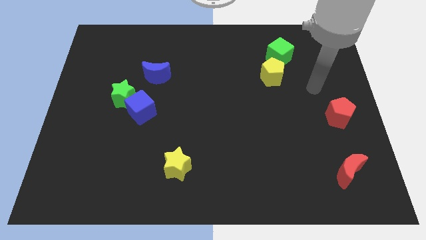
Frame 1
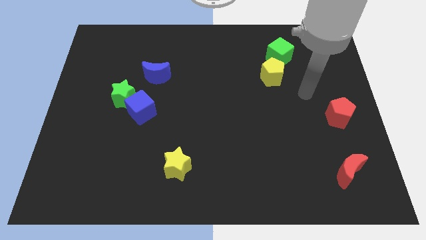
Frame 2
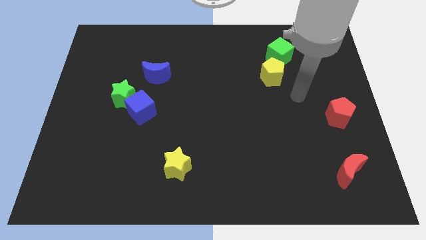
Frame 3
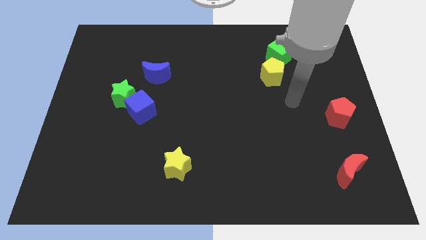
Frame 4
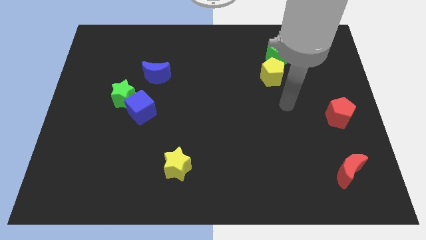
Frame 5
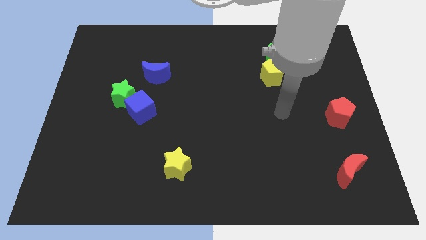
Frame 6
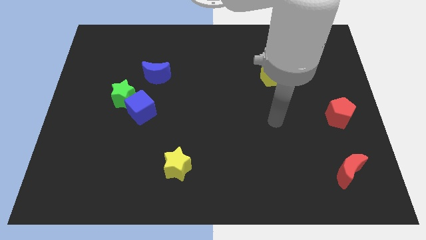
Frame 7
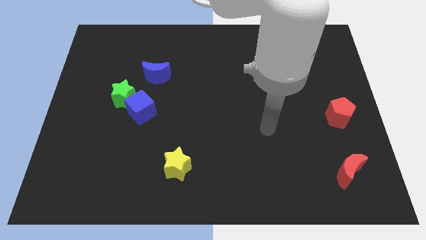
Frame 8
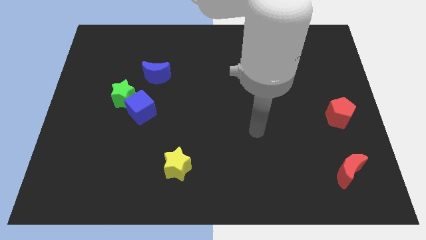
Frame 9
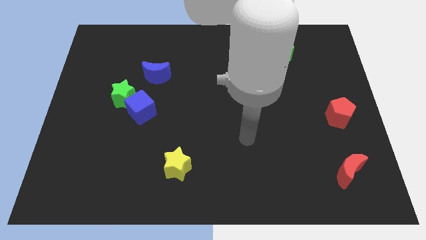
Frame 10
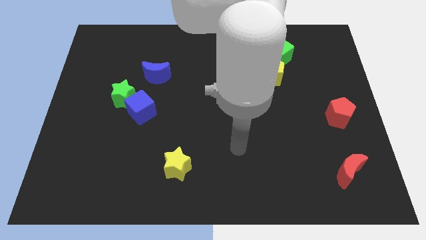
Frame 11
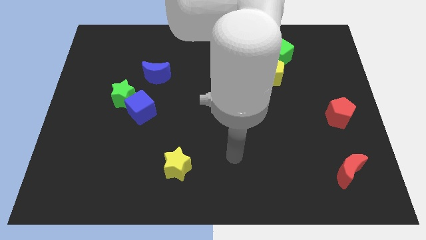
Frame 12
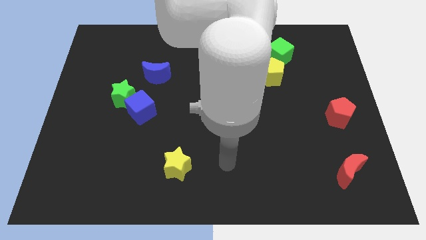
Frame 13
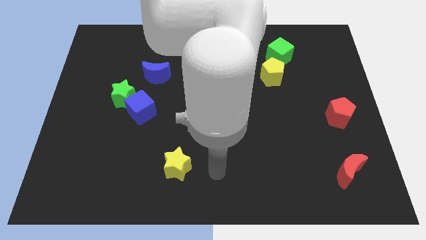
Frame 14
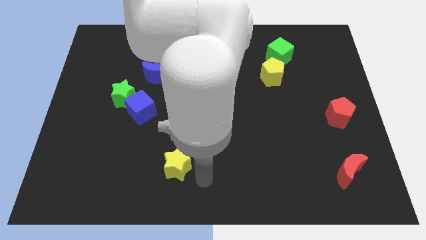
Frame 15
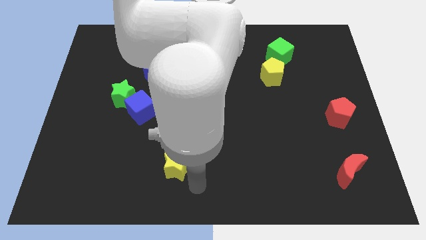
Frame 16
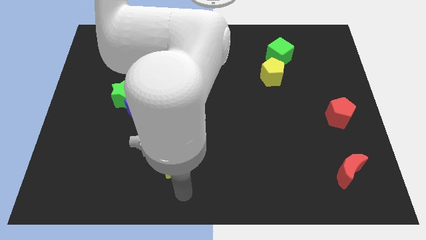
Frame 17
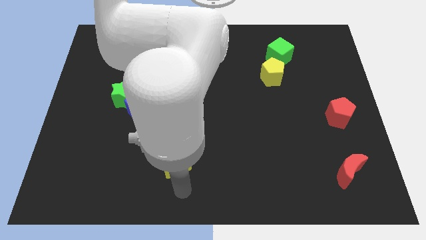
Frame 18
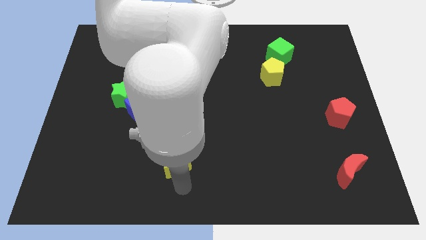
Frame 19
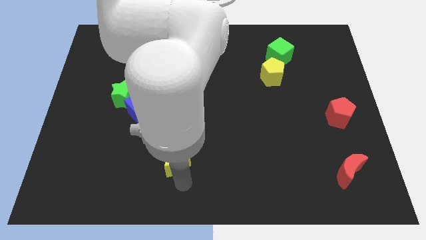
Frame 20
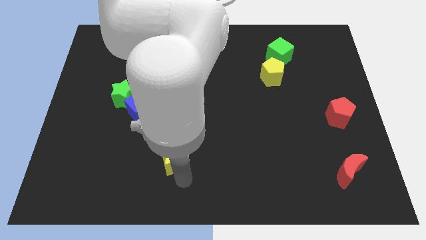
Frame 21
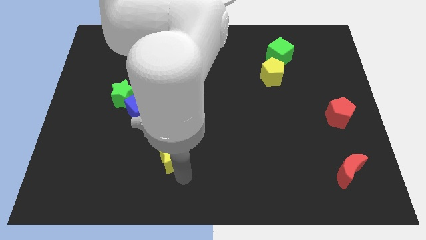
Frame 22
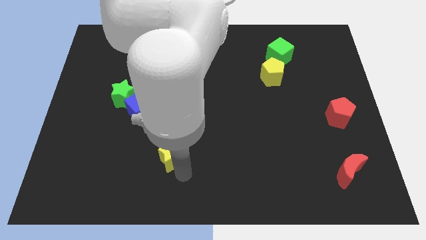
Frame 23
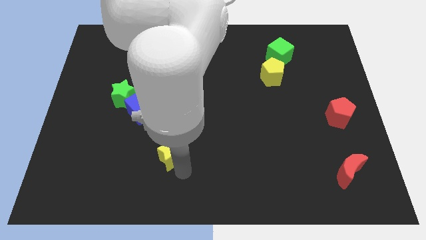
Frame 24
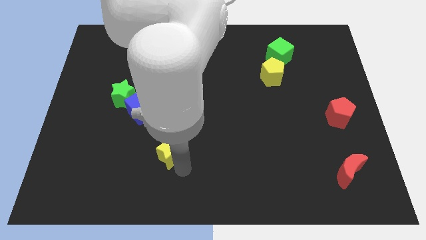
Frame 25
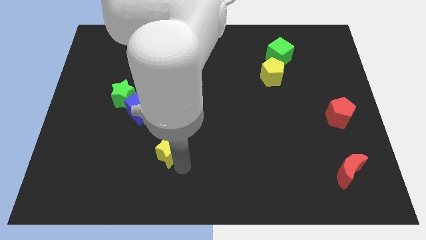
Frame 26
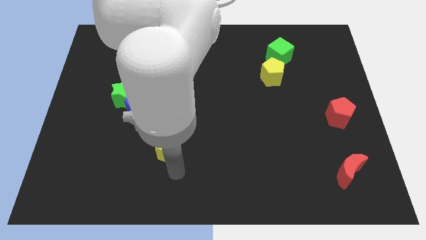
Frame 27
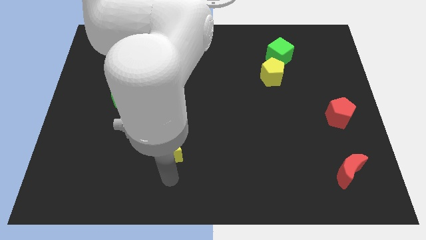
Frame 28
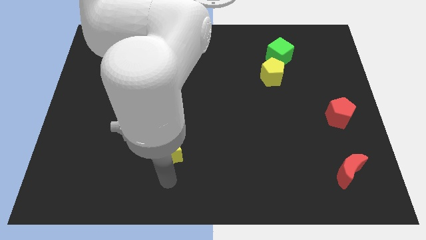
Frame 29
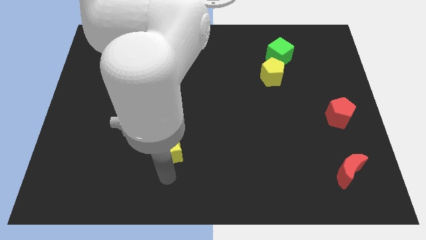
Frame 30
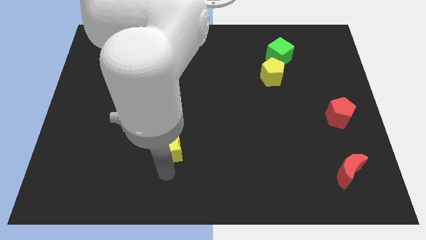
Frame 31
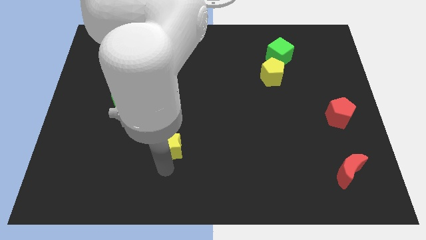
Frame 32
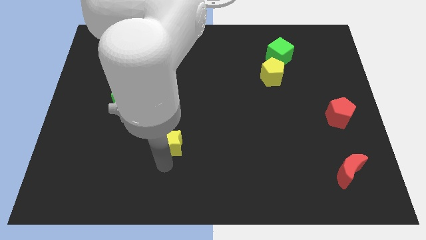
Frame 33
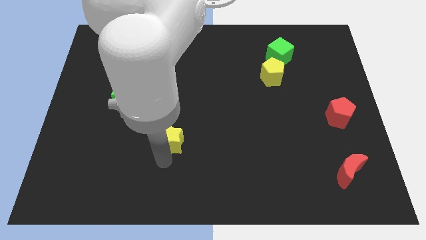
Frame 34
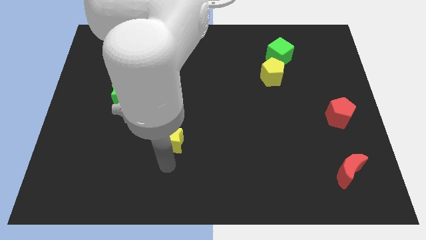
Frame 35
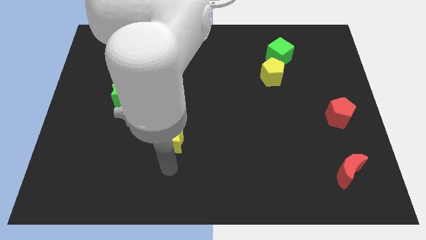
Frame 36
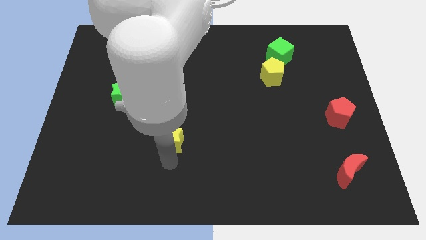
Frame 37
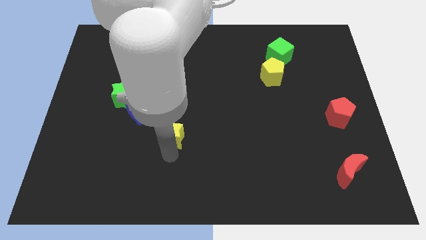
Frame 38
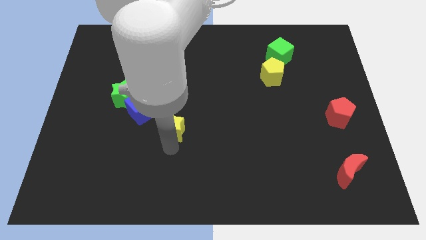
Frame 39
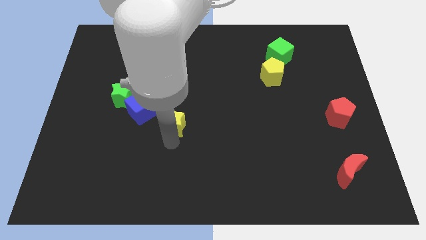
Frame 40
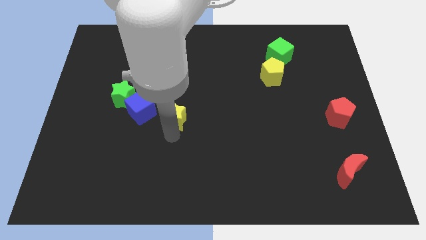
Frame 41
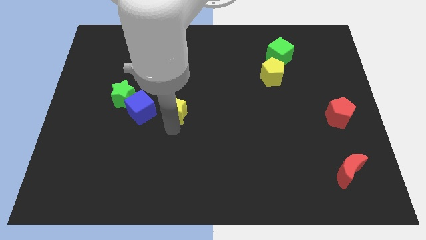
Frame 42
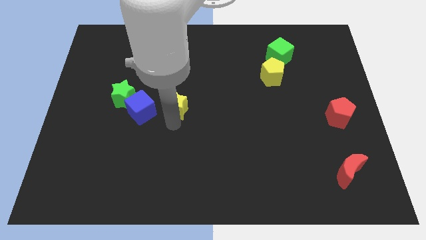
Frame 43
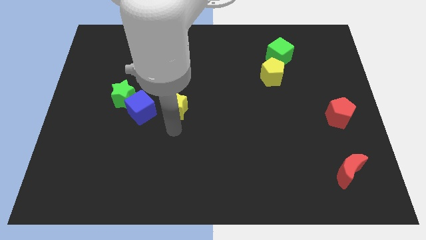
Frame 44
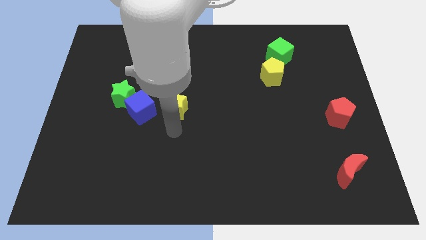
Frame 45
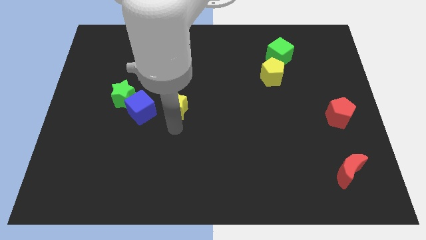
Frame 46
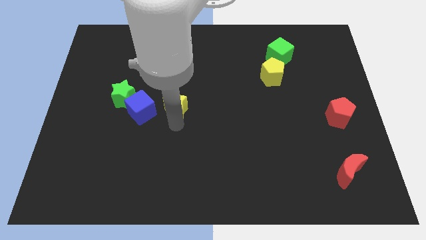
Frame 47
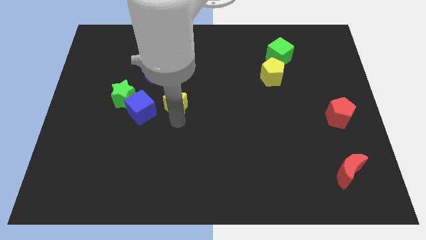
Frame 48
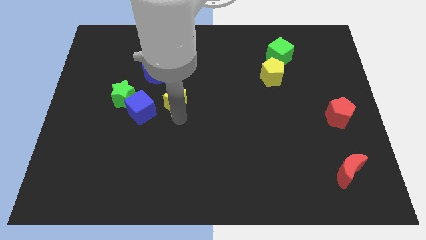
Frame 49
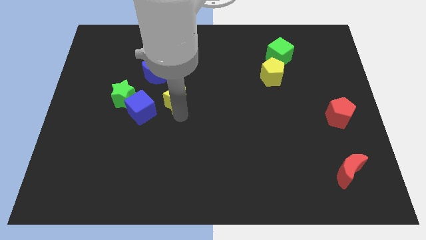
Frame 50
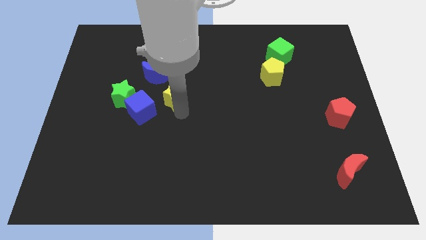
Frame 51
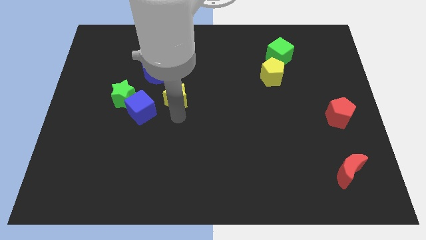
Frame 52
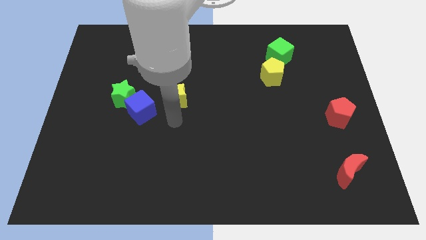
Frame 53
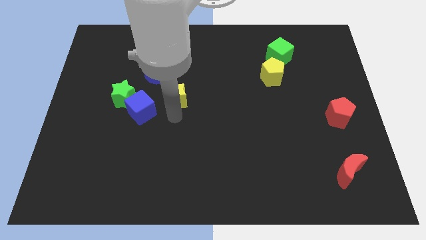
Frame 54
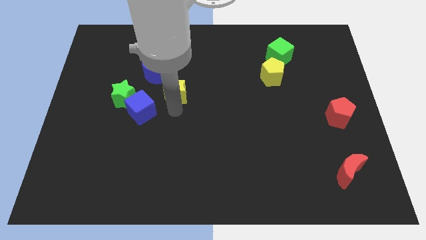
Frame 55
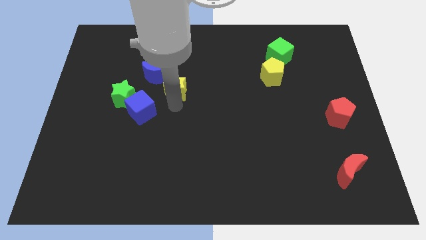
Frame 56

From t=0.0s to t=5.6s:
move the yellow star upwards

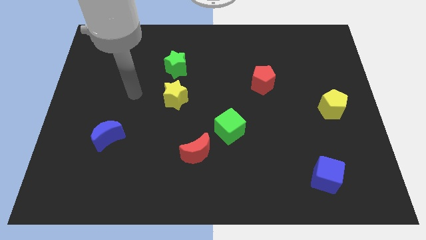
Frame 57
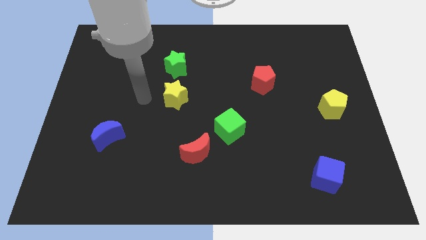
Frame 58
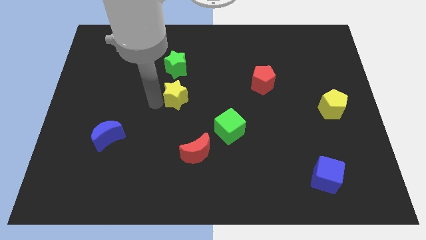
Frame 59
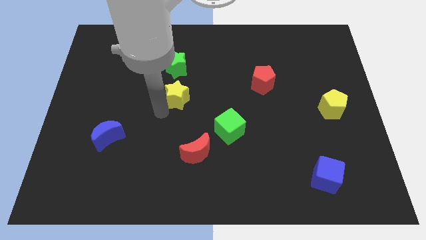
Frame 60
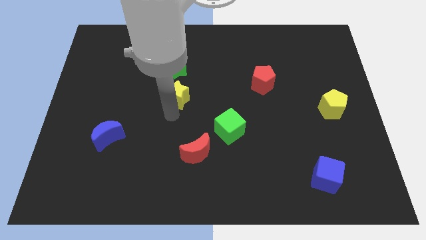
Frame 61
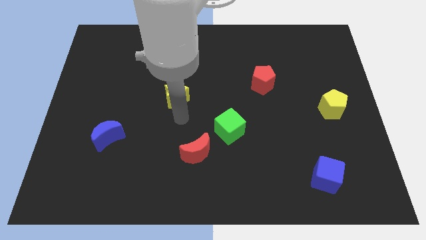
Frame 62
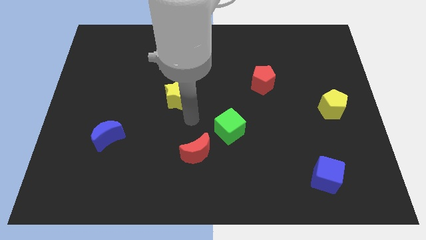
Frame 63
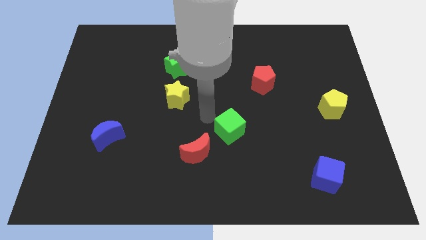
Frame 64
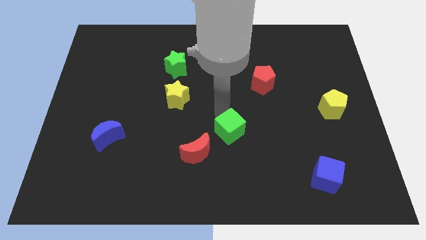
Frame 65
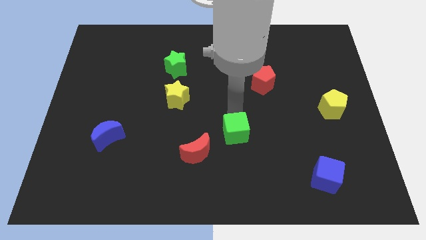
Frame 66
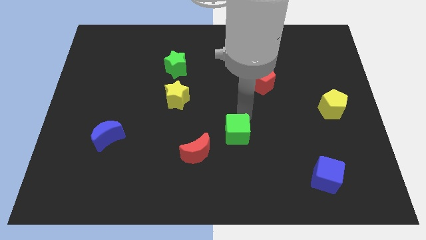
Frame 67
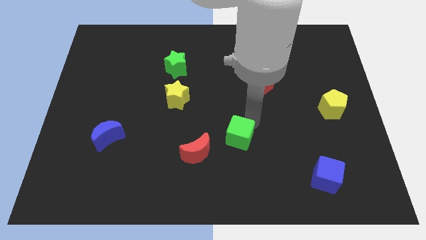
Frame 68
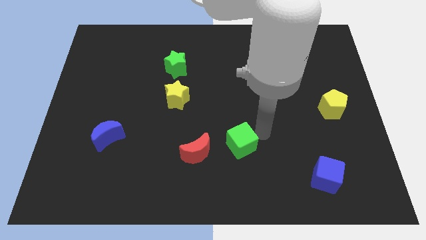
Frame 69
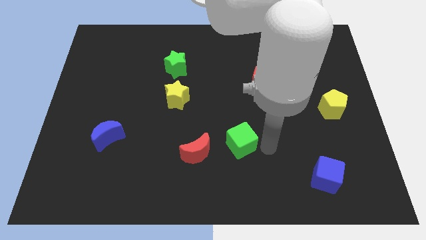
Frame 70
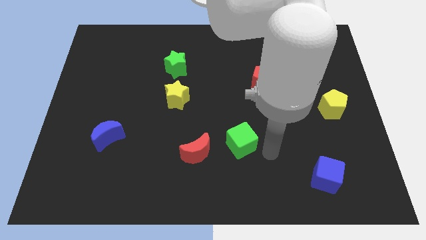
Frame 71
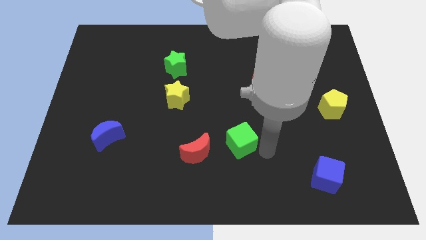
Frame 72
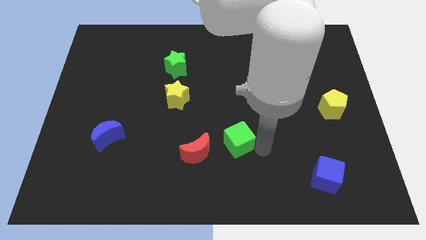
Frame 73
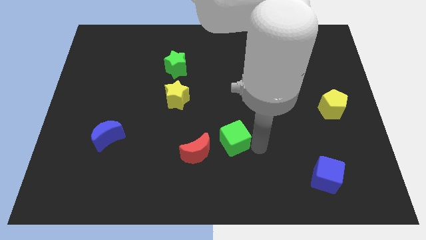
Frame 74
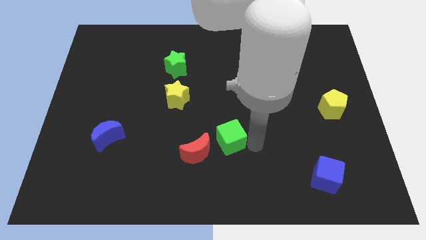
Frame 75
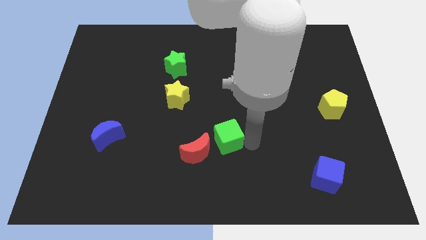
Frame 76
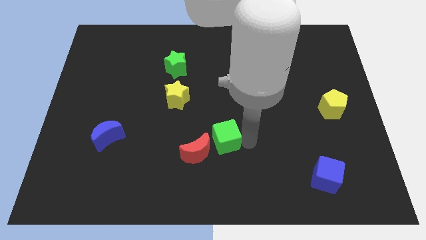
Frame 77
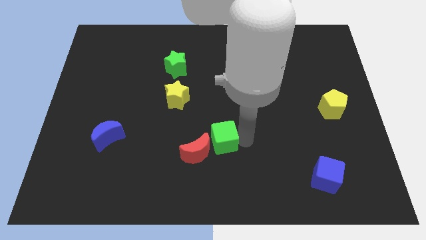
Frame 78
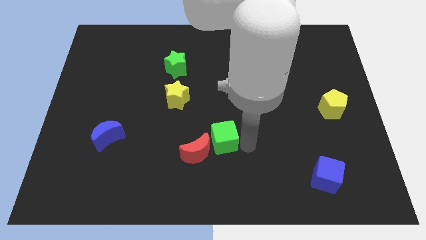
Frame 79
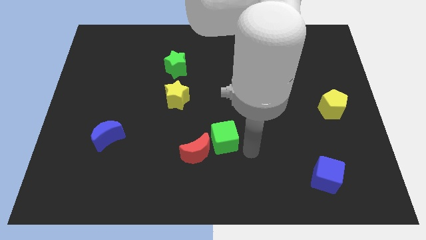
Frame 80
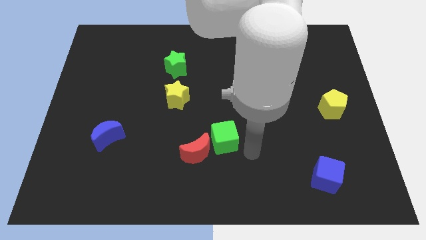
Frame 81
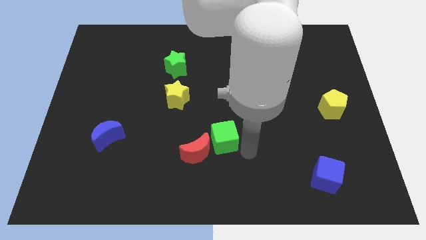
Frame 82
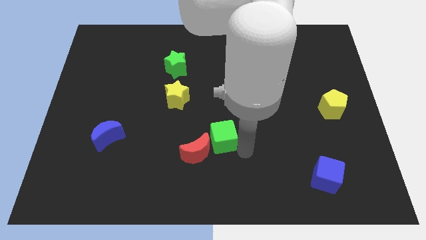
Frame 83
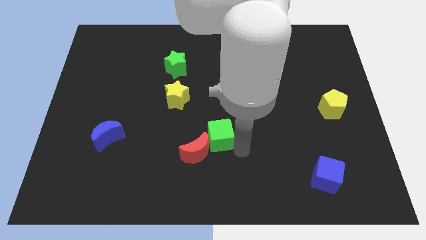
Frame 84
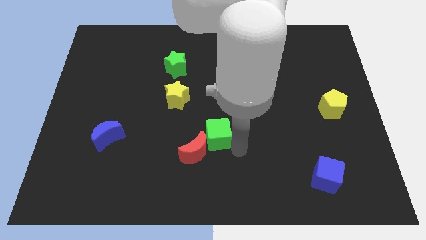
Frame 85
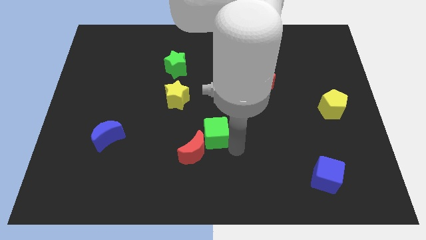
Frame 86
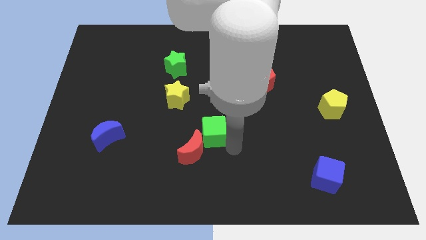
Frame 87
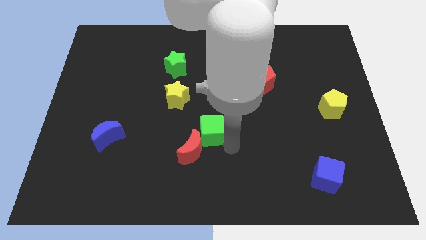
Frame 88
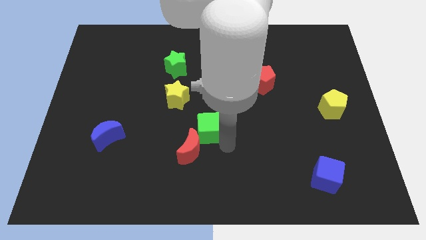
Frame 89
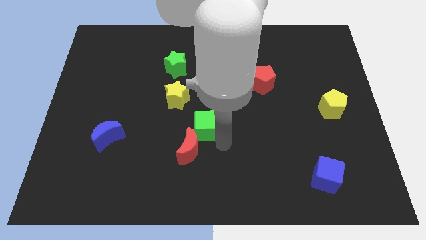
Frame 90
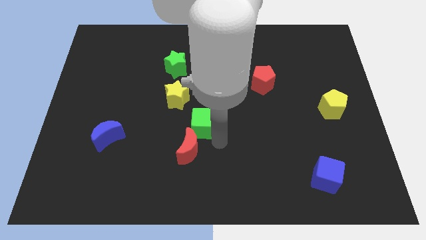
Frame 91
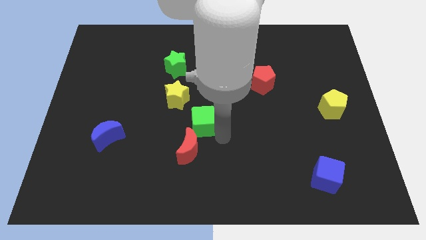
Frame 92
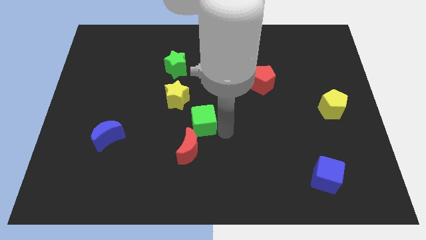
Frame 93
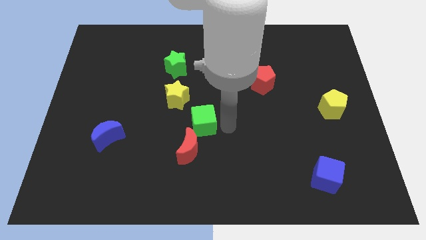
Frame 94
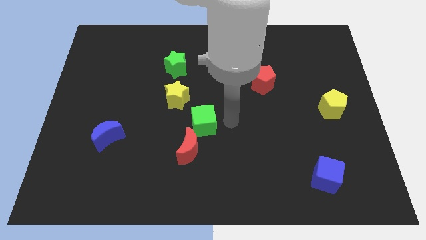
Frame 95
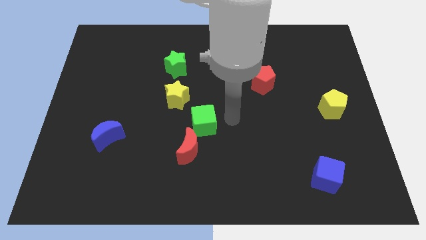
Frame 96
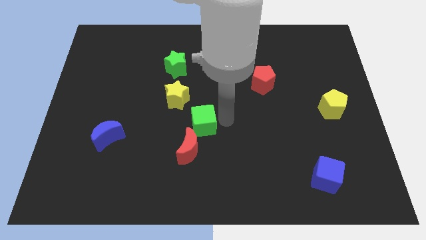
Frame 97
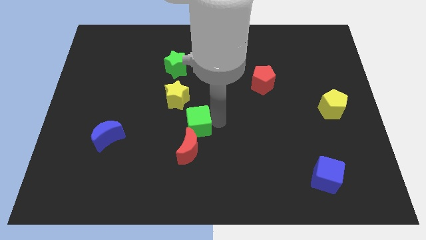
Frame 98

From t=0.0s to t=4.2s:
slightly slide the green cube left
